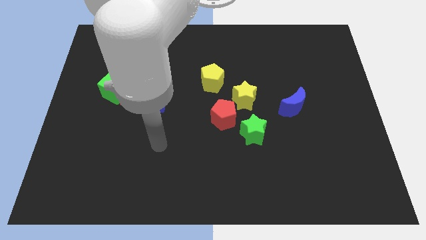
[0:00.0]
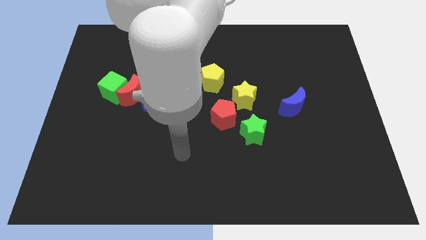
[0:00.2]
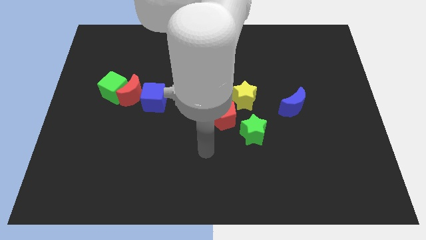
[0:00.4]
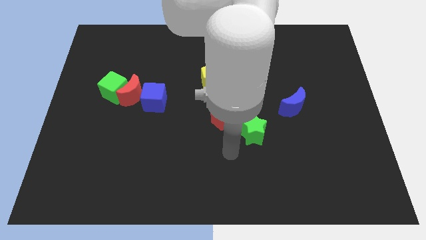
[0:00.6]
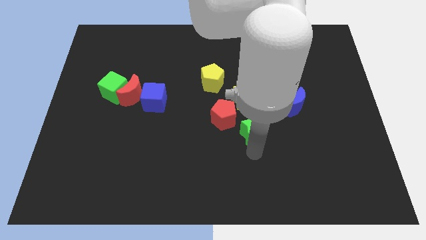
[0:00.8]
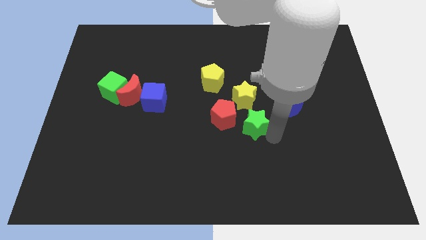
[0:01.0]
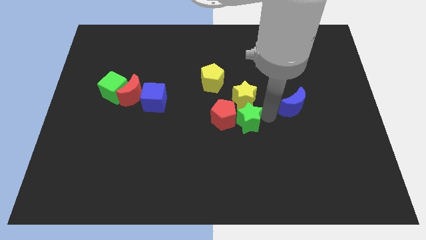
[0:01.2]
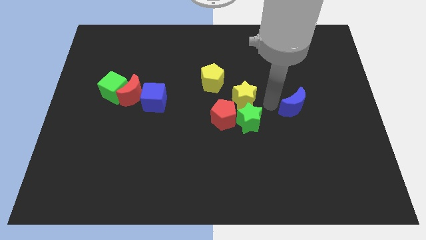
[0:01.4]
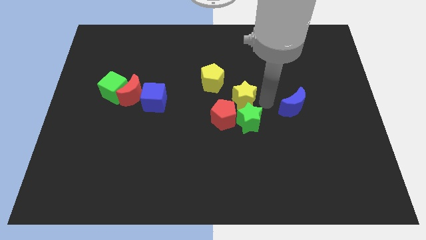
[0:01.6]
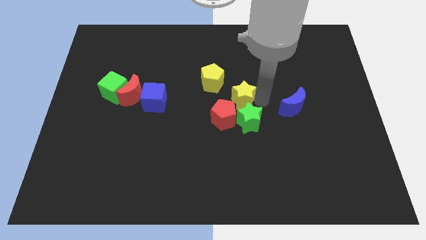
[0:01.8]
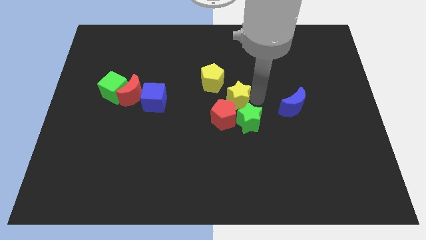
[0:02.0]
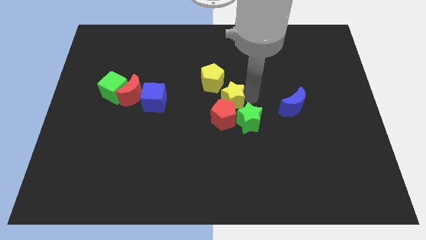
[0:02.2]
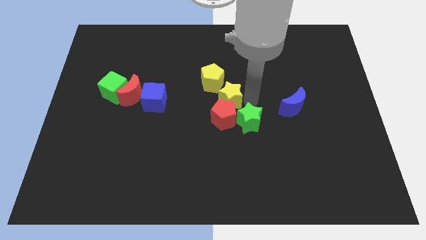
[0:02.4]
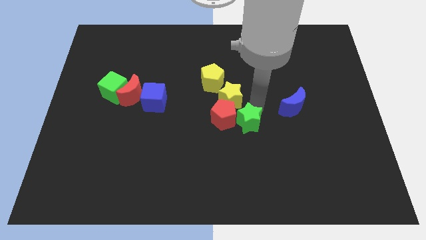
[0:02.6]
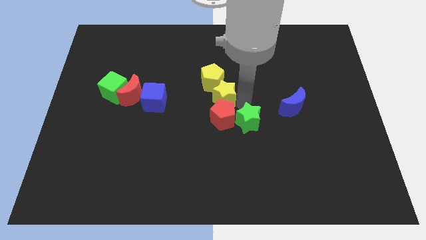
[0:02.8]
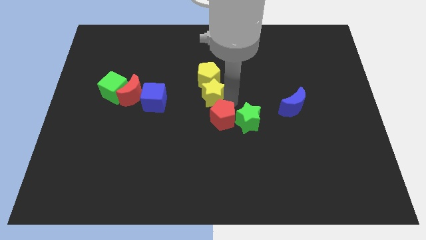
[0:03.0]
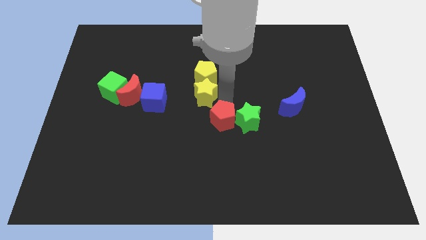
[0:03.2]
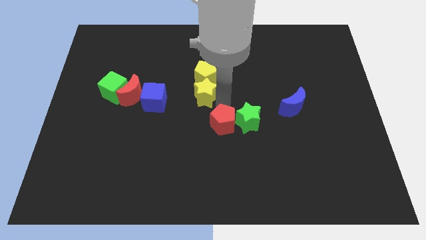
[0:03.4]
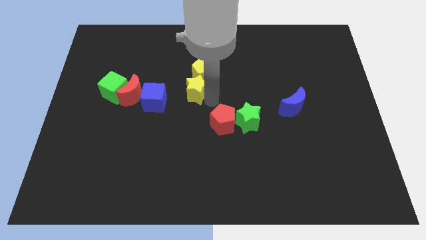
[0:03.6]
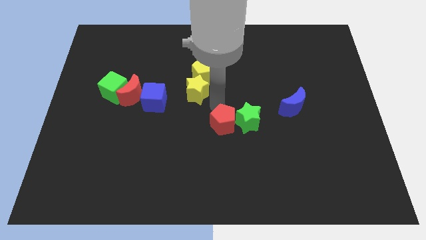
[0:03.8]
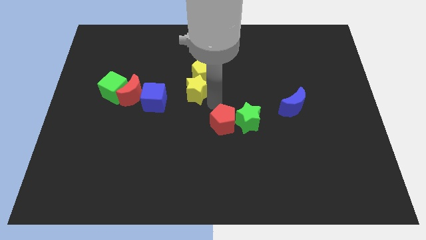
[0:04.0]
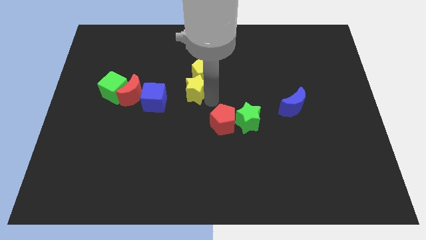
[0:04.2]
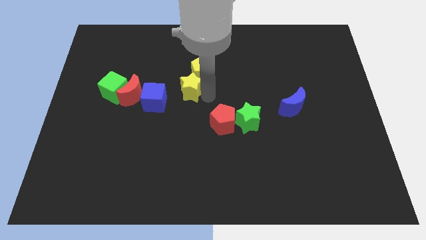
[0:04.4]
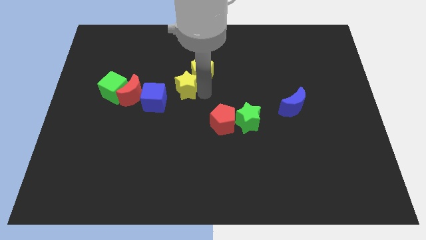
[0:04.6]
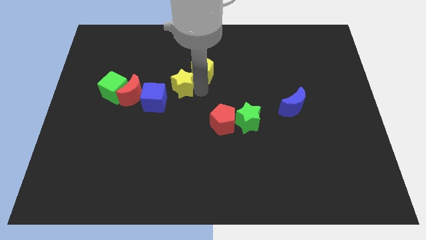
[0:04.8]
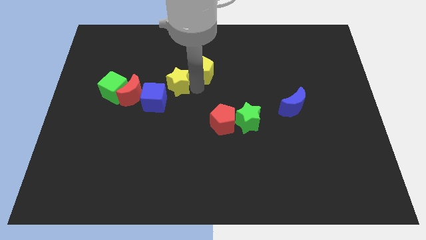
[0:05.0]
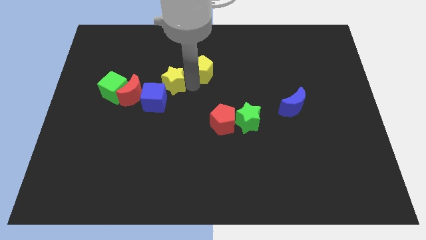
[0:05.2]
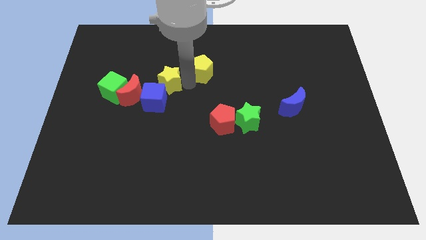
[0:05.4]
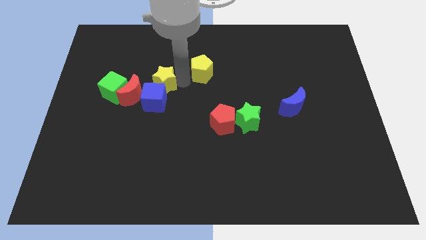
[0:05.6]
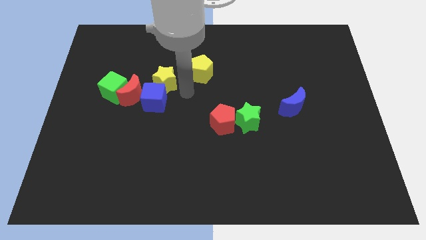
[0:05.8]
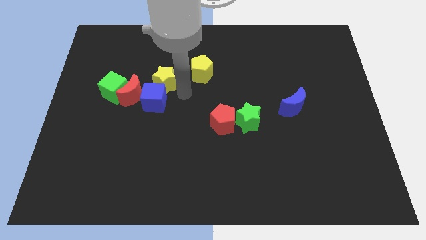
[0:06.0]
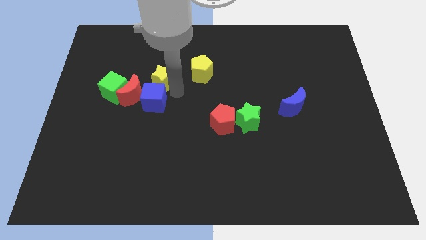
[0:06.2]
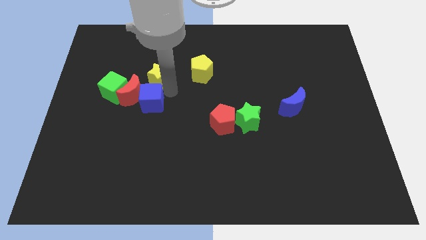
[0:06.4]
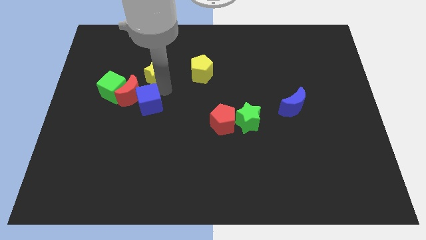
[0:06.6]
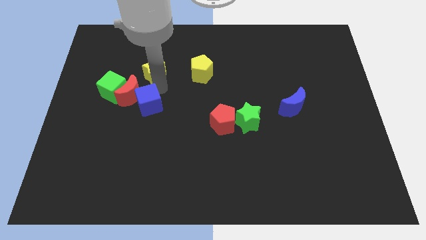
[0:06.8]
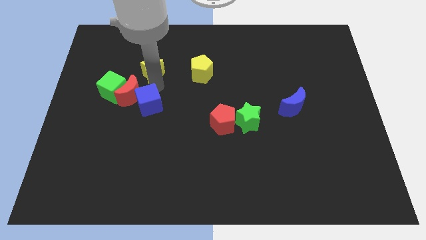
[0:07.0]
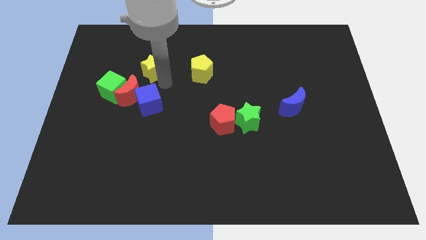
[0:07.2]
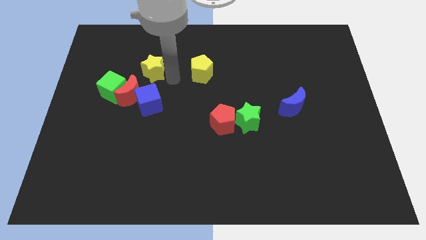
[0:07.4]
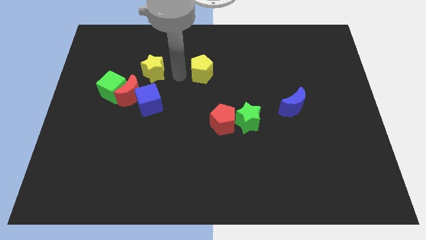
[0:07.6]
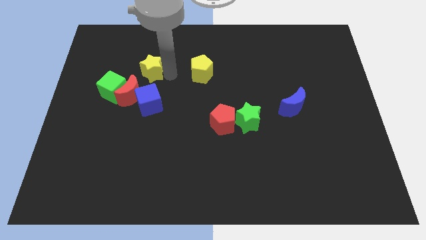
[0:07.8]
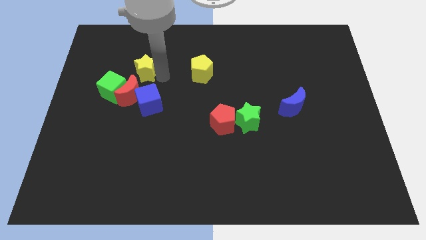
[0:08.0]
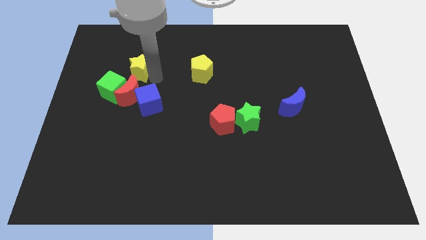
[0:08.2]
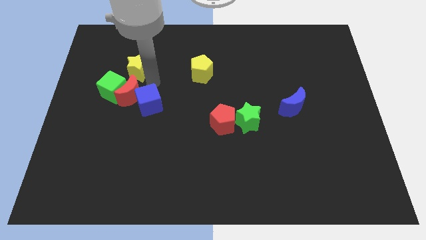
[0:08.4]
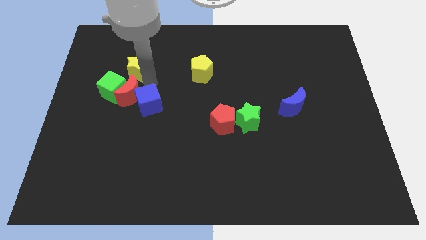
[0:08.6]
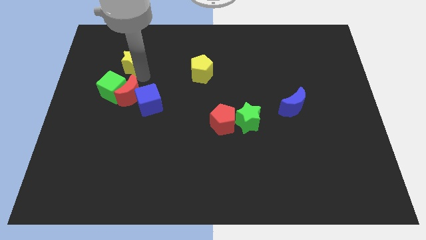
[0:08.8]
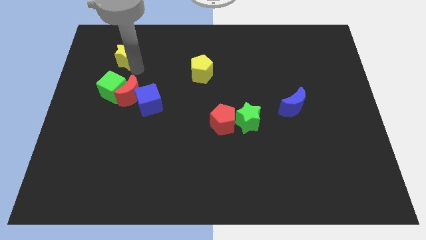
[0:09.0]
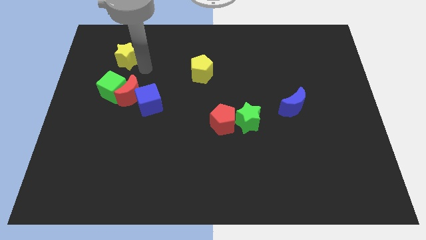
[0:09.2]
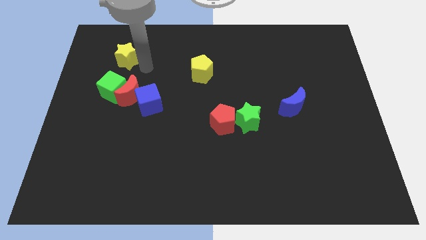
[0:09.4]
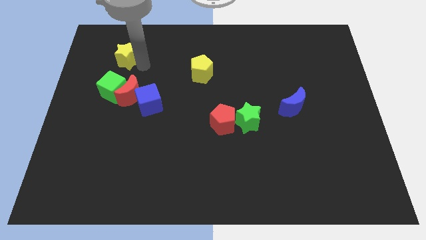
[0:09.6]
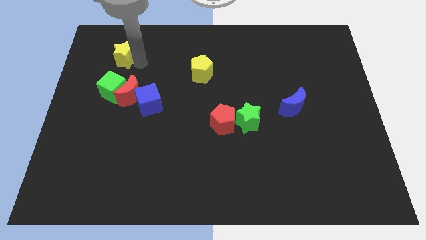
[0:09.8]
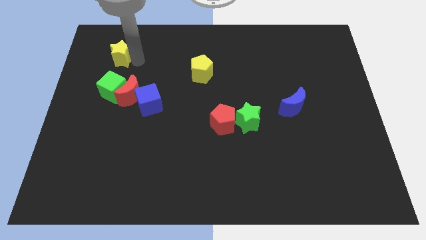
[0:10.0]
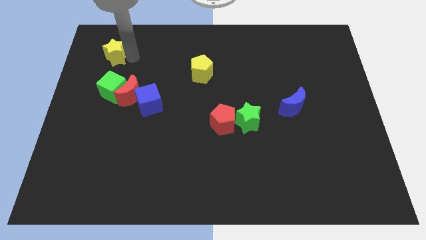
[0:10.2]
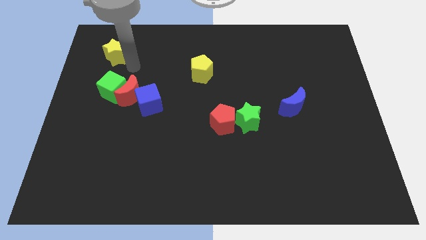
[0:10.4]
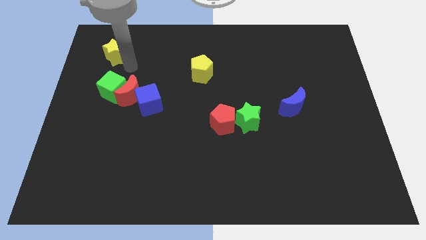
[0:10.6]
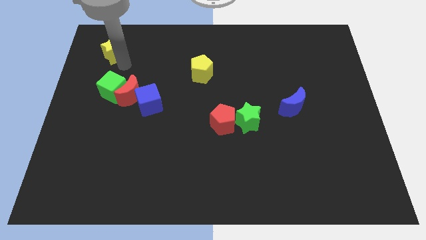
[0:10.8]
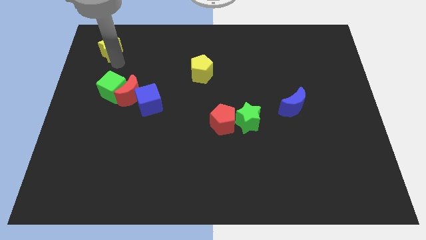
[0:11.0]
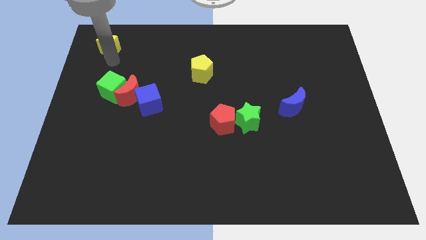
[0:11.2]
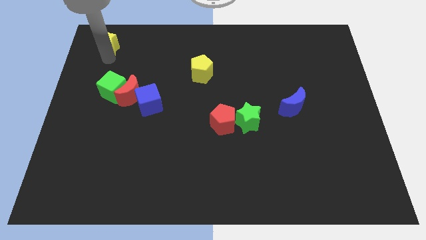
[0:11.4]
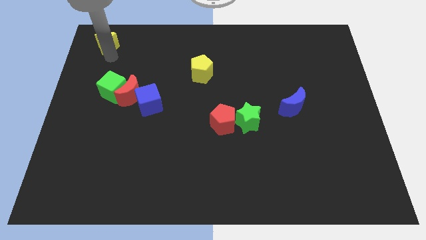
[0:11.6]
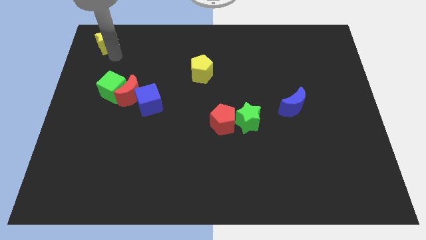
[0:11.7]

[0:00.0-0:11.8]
move the yellow star to the upper left corner
